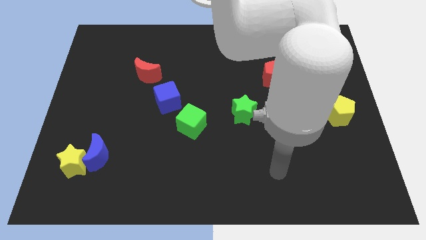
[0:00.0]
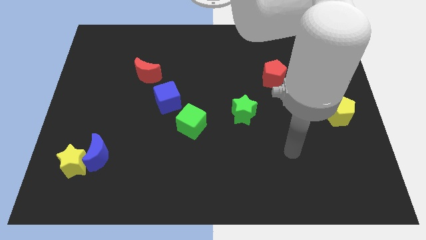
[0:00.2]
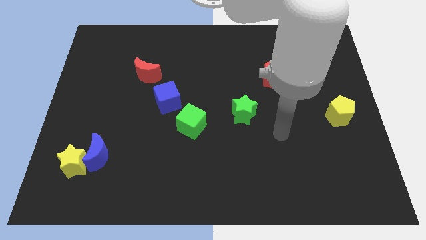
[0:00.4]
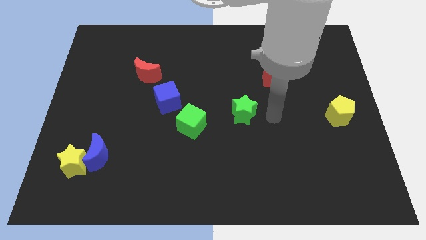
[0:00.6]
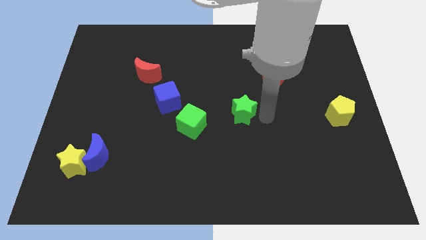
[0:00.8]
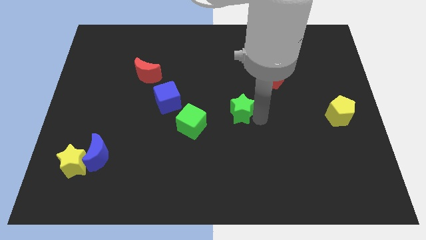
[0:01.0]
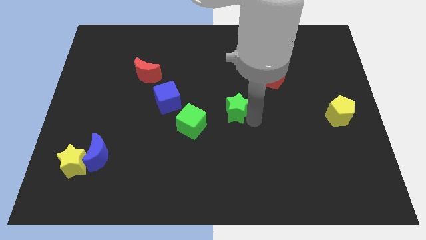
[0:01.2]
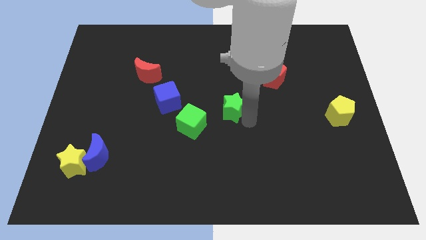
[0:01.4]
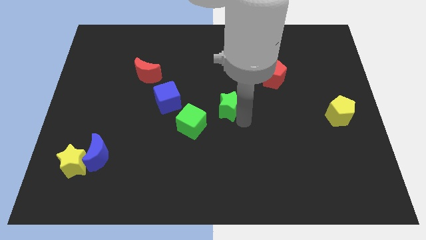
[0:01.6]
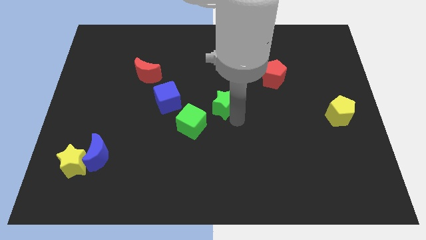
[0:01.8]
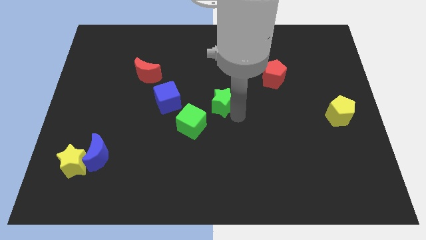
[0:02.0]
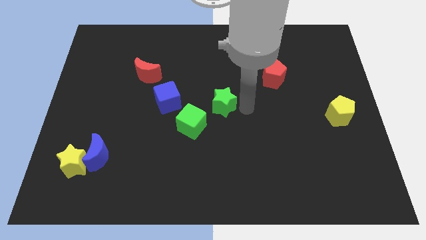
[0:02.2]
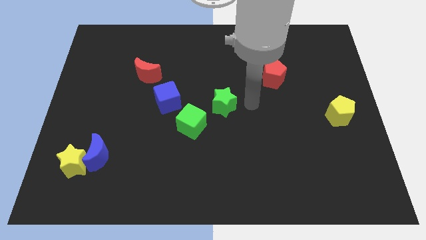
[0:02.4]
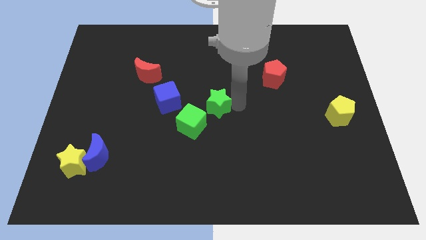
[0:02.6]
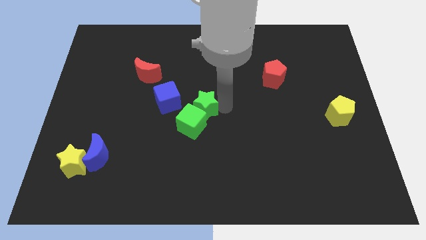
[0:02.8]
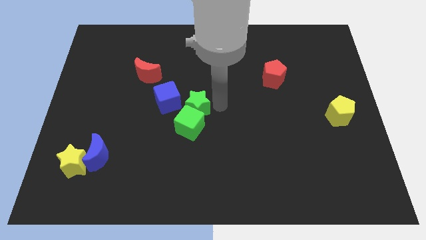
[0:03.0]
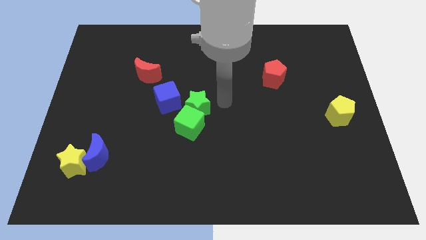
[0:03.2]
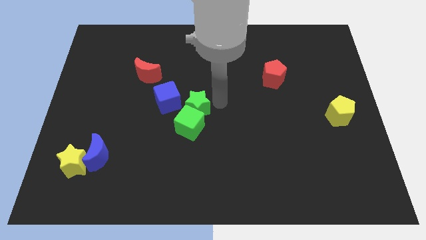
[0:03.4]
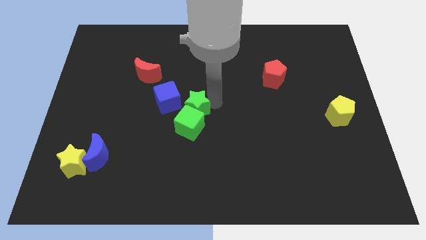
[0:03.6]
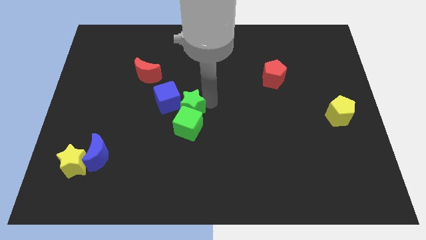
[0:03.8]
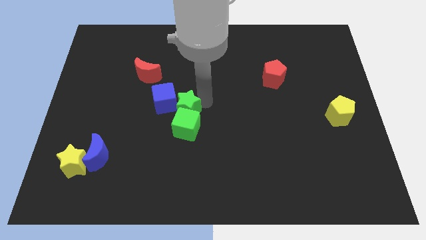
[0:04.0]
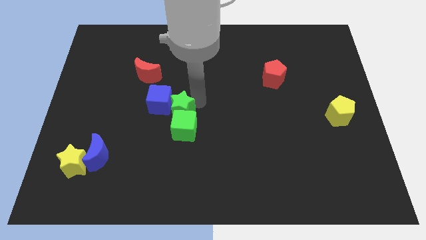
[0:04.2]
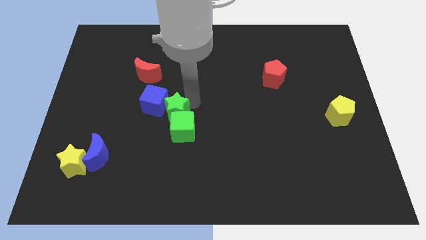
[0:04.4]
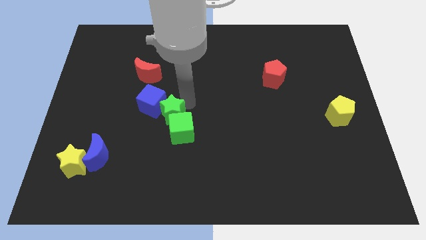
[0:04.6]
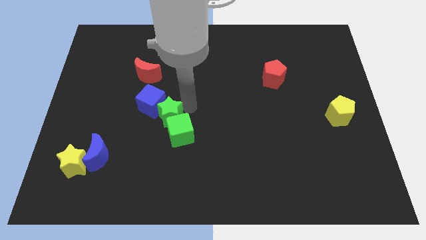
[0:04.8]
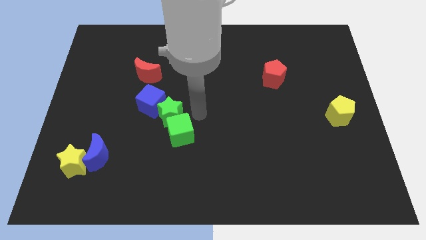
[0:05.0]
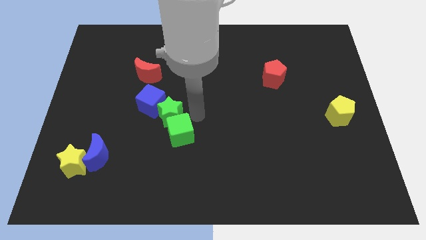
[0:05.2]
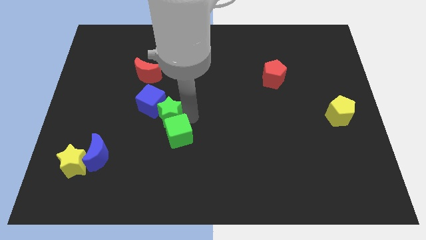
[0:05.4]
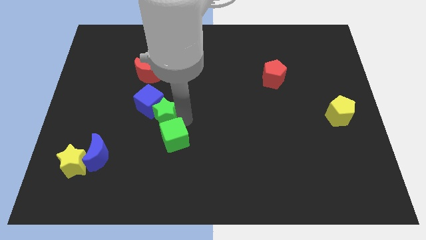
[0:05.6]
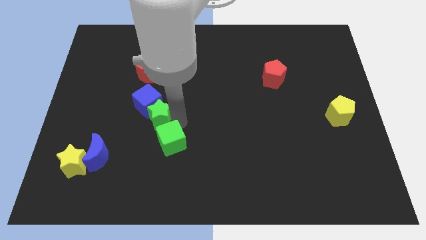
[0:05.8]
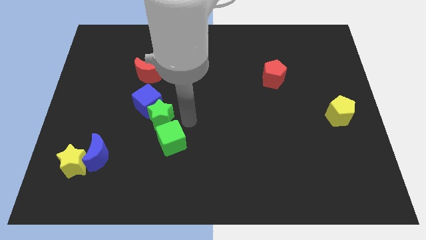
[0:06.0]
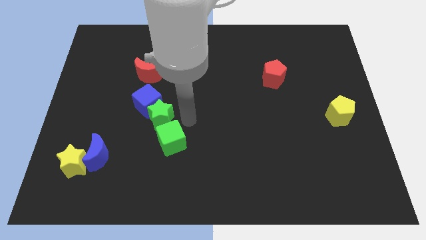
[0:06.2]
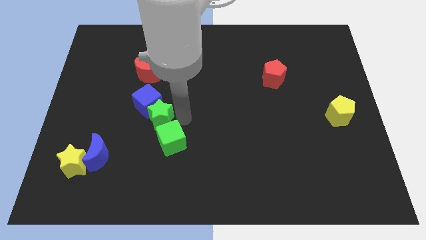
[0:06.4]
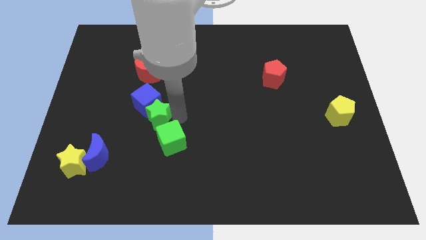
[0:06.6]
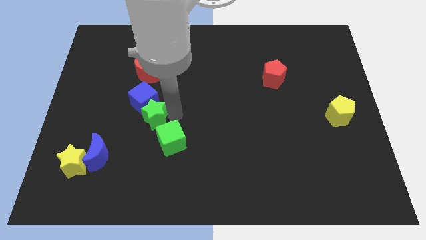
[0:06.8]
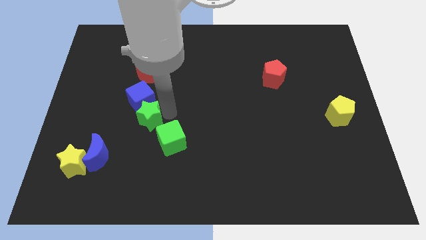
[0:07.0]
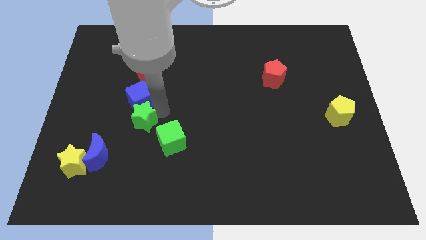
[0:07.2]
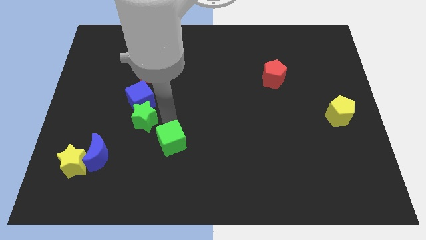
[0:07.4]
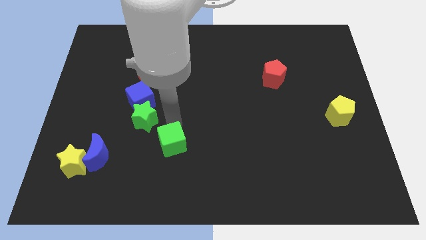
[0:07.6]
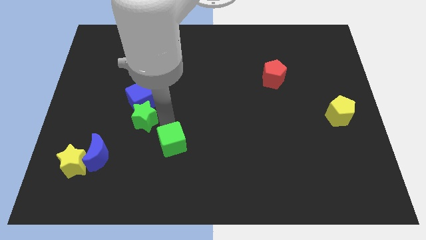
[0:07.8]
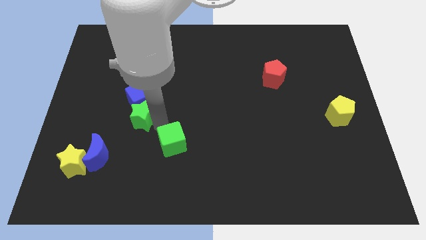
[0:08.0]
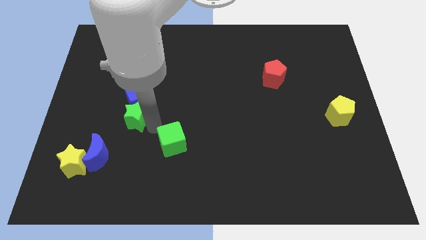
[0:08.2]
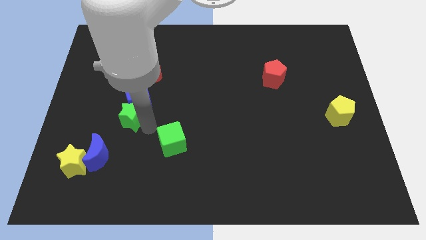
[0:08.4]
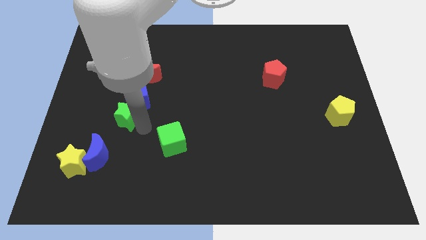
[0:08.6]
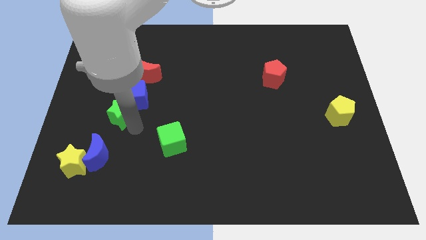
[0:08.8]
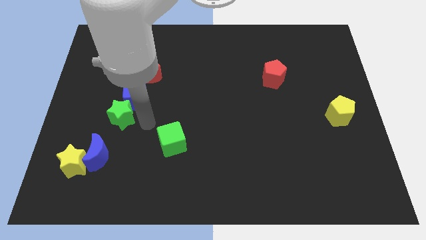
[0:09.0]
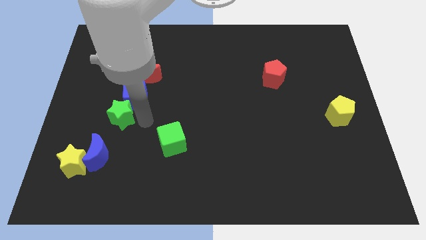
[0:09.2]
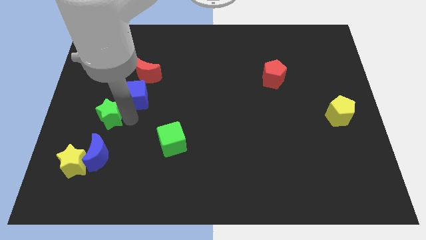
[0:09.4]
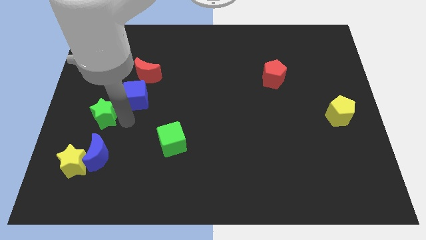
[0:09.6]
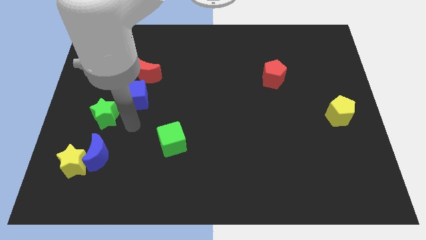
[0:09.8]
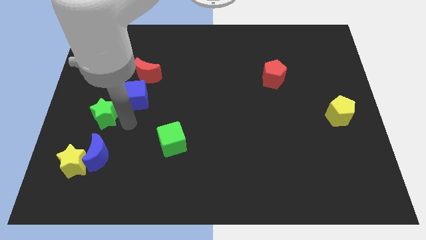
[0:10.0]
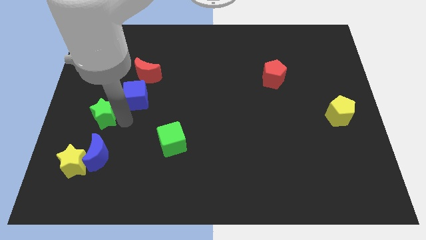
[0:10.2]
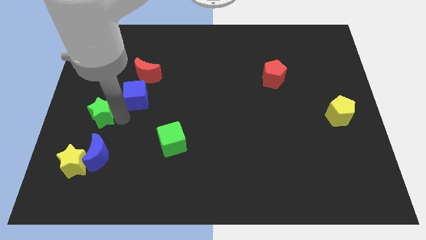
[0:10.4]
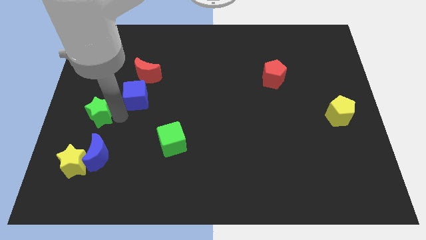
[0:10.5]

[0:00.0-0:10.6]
slide the green star to the left side
